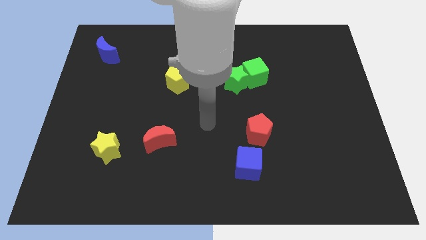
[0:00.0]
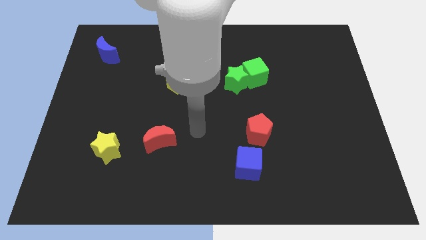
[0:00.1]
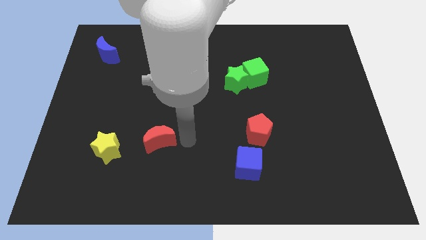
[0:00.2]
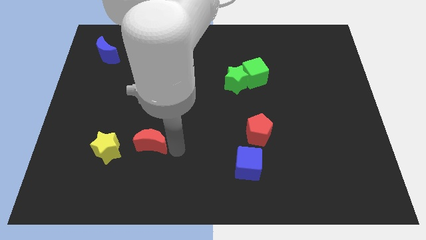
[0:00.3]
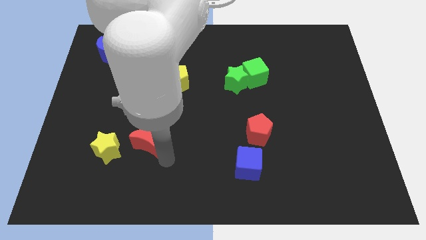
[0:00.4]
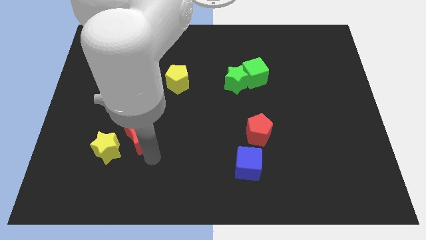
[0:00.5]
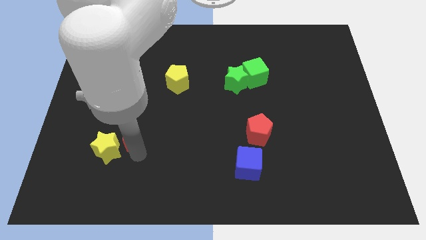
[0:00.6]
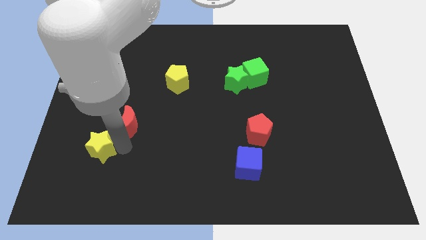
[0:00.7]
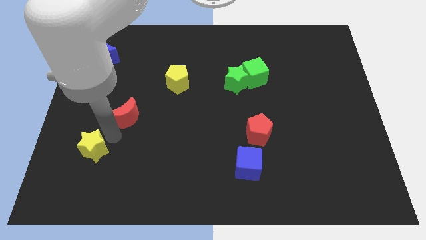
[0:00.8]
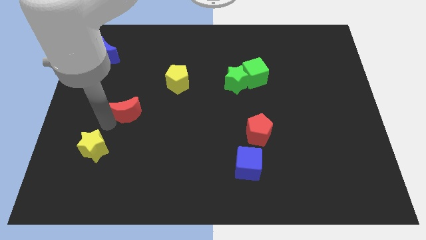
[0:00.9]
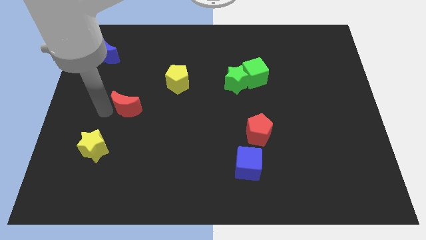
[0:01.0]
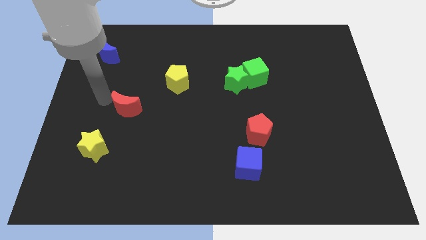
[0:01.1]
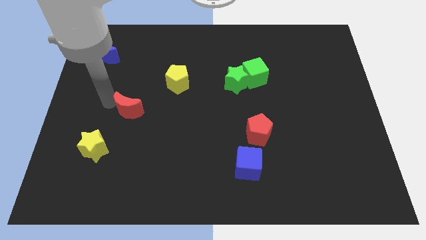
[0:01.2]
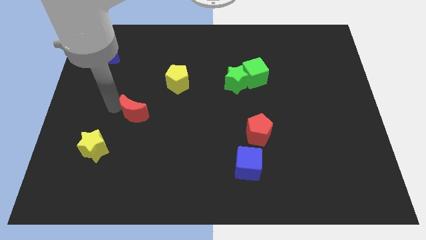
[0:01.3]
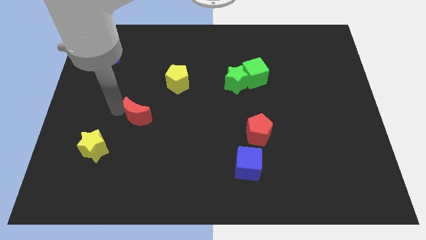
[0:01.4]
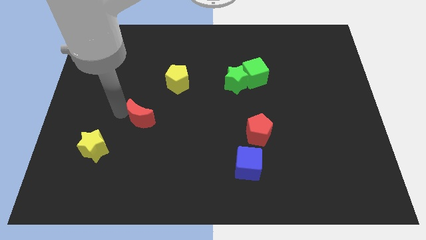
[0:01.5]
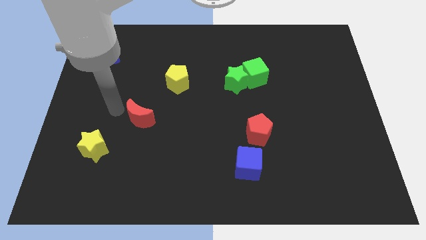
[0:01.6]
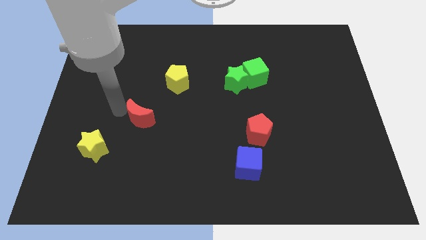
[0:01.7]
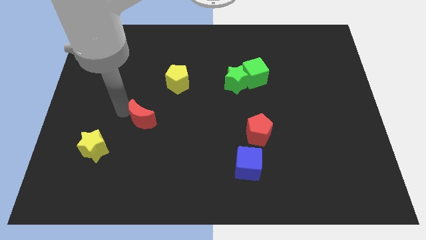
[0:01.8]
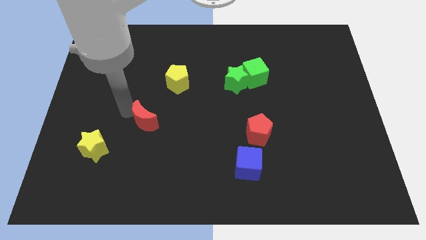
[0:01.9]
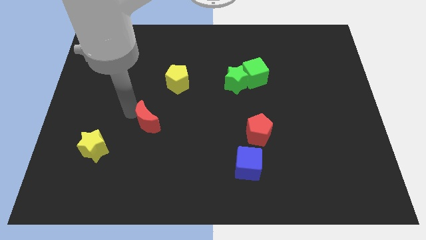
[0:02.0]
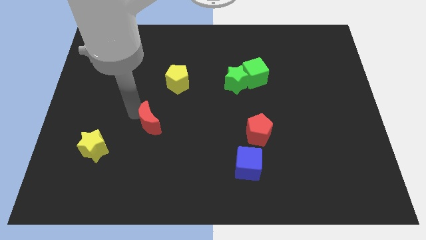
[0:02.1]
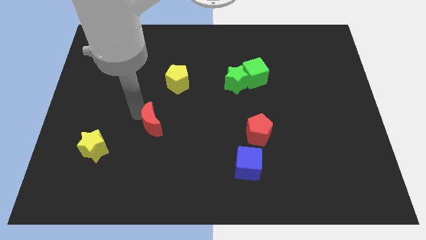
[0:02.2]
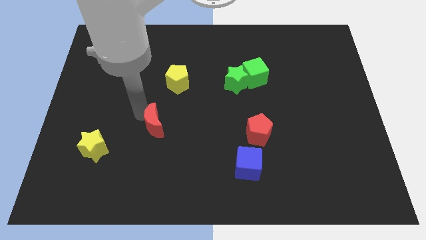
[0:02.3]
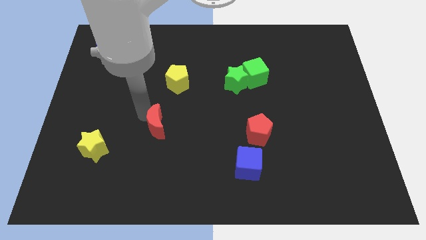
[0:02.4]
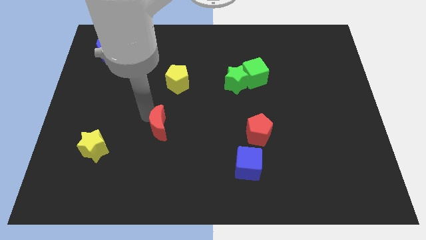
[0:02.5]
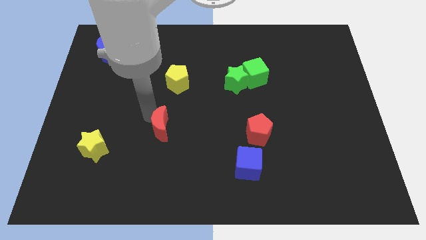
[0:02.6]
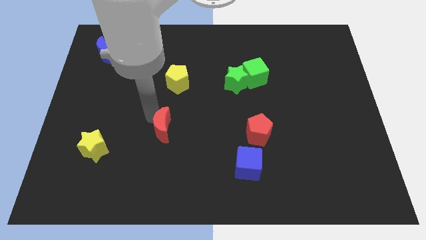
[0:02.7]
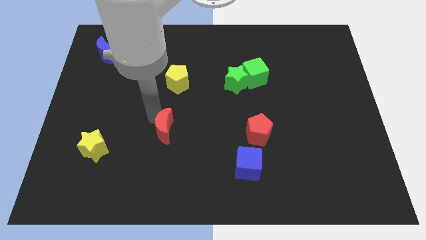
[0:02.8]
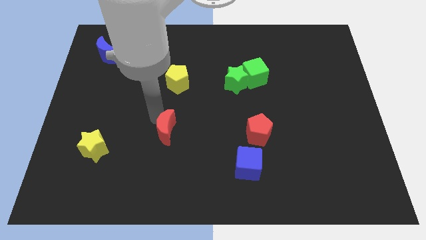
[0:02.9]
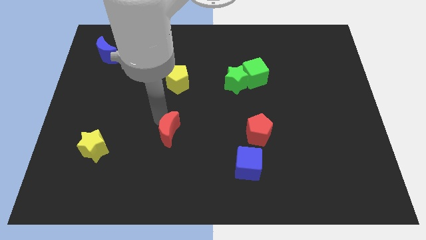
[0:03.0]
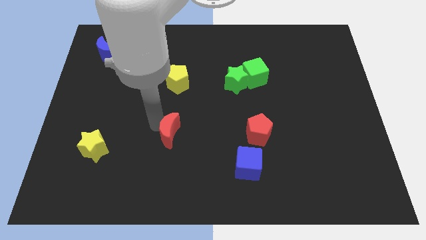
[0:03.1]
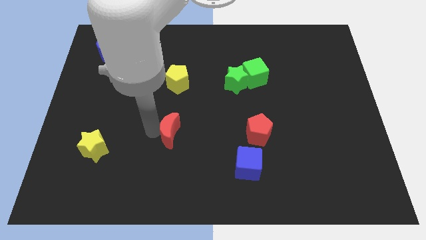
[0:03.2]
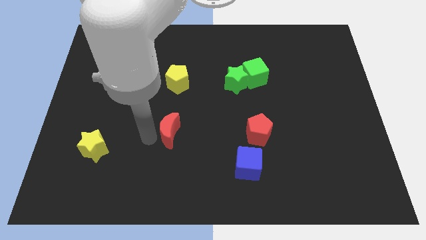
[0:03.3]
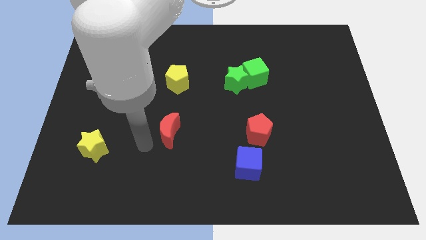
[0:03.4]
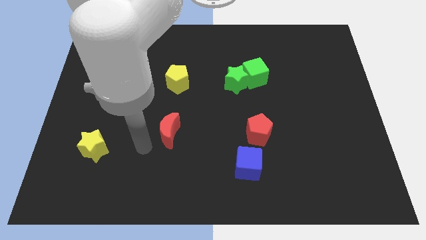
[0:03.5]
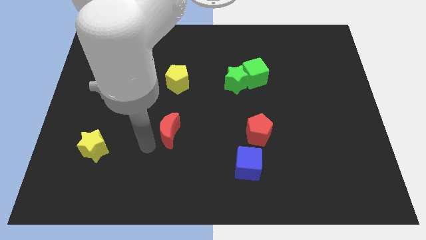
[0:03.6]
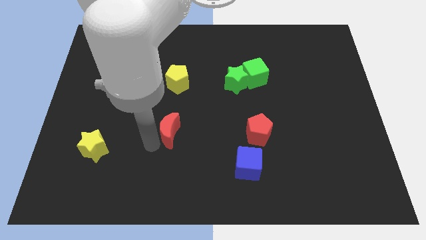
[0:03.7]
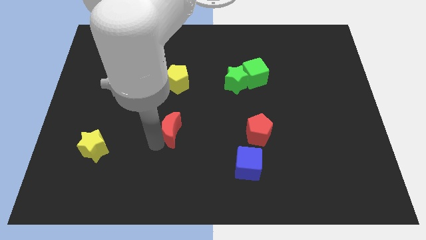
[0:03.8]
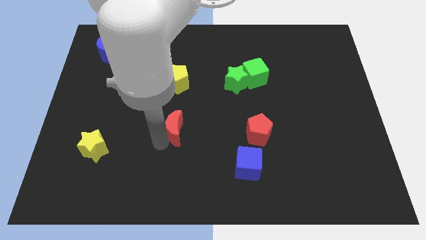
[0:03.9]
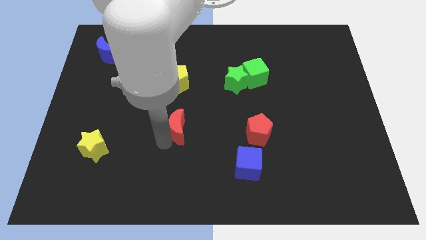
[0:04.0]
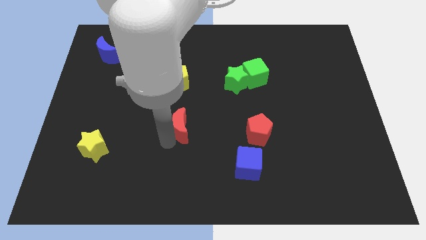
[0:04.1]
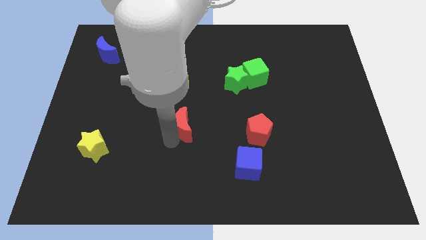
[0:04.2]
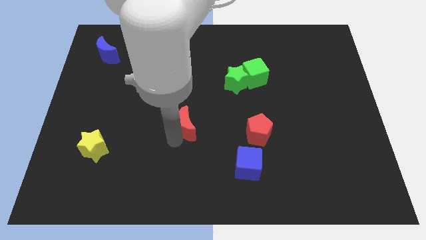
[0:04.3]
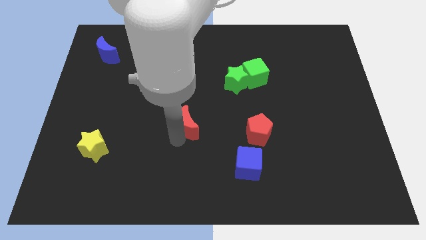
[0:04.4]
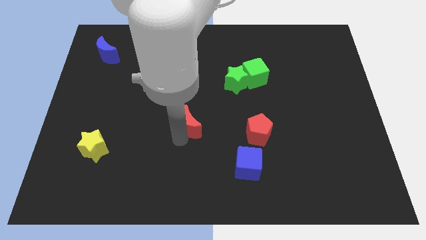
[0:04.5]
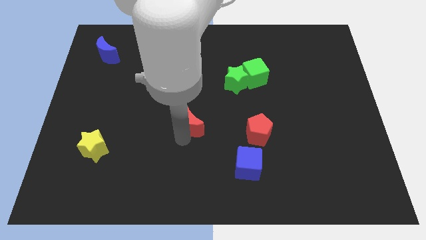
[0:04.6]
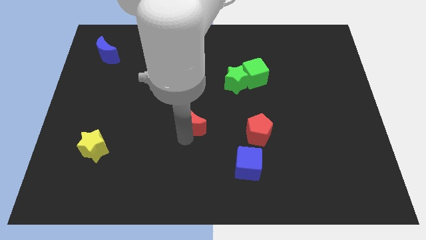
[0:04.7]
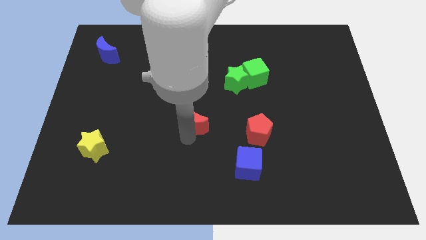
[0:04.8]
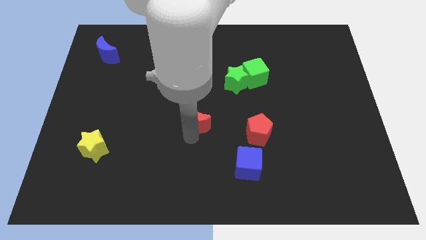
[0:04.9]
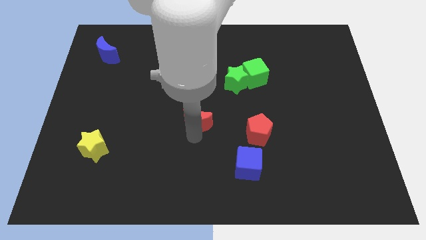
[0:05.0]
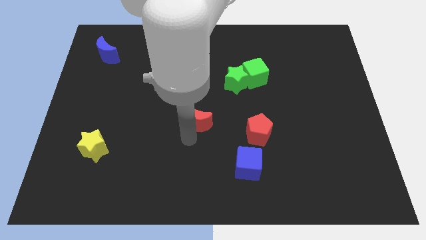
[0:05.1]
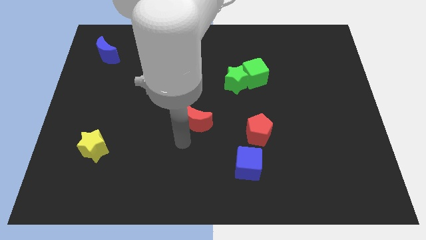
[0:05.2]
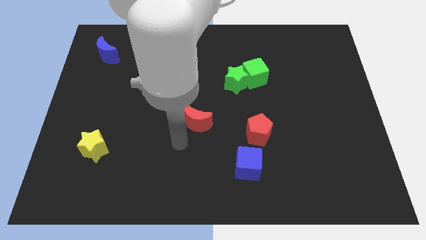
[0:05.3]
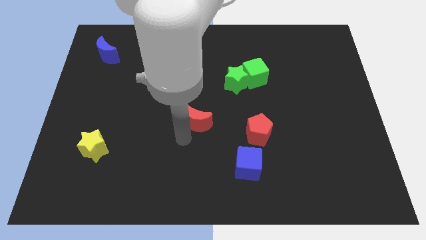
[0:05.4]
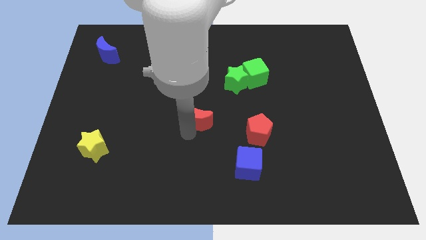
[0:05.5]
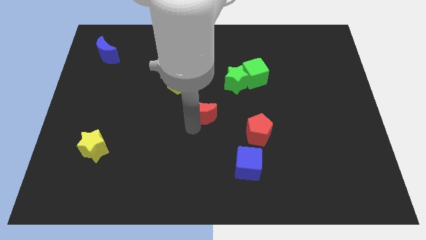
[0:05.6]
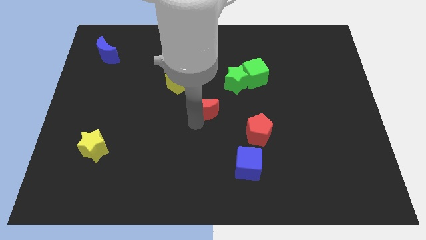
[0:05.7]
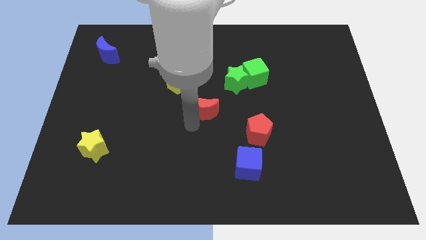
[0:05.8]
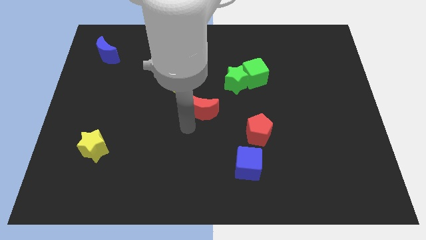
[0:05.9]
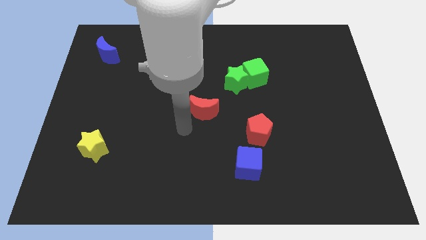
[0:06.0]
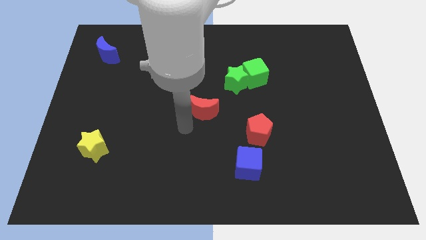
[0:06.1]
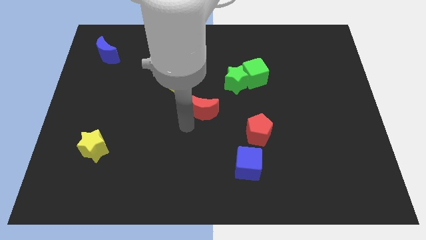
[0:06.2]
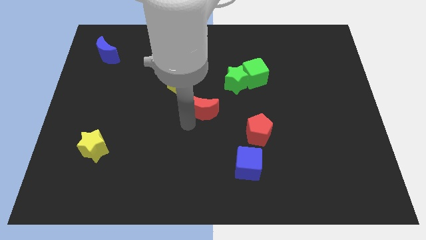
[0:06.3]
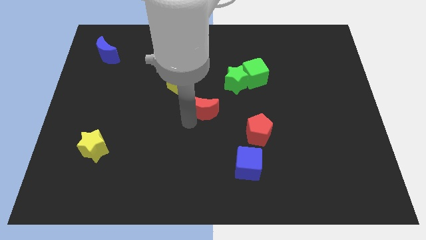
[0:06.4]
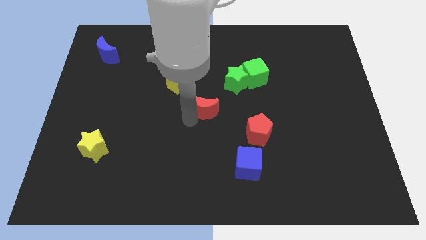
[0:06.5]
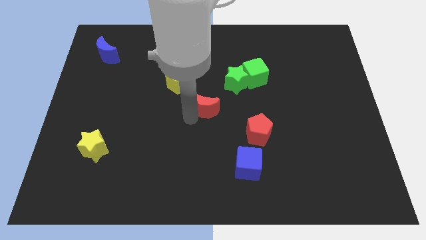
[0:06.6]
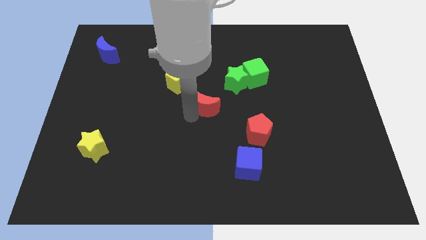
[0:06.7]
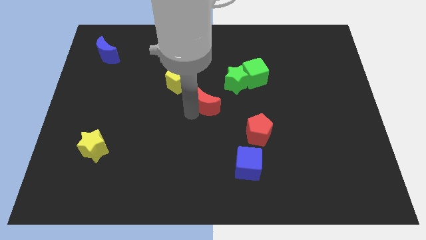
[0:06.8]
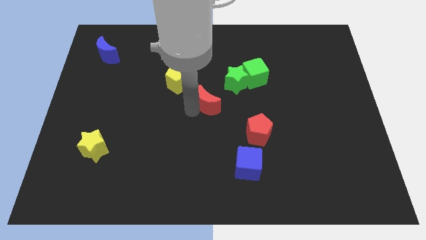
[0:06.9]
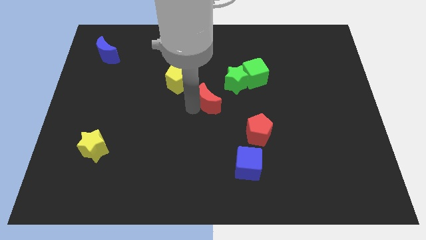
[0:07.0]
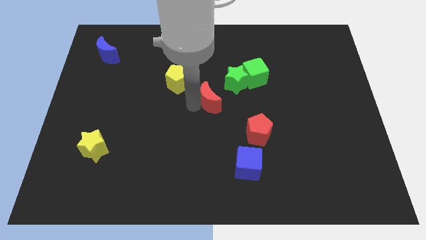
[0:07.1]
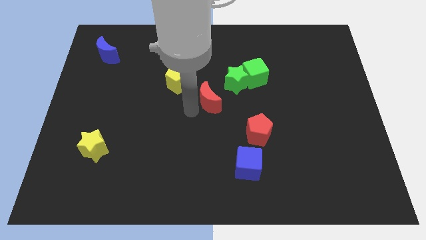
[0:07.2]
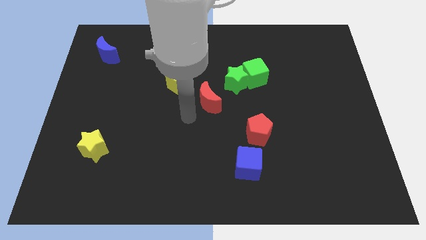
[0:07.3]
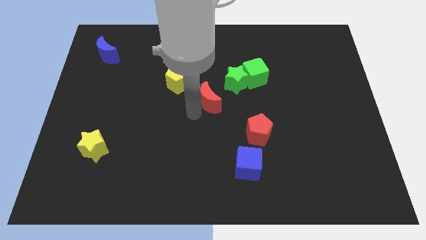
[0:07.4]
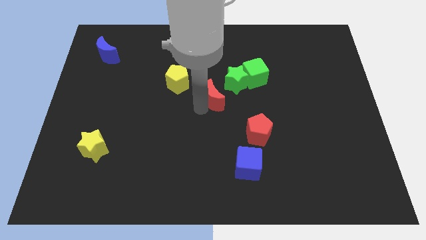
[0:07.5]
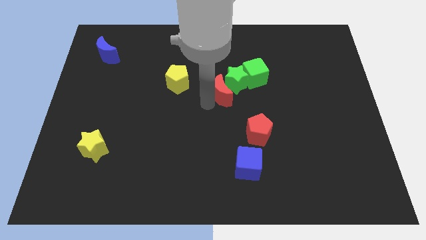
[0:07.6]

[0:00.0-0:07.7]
move the red moon next to the green star
